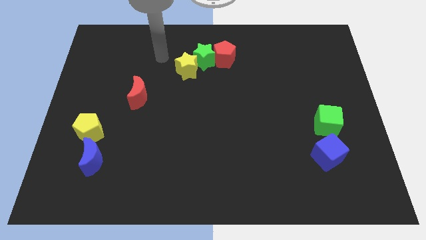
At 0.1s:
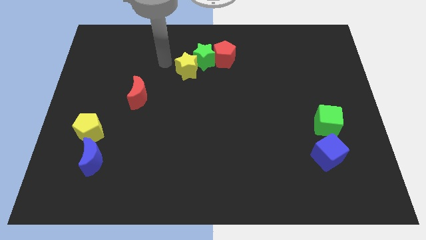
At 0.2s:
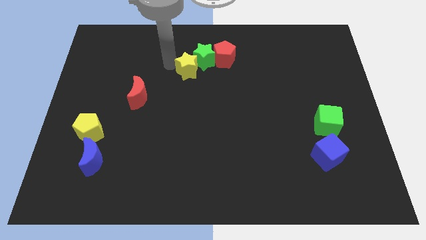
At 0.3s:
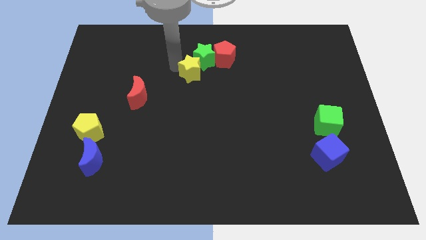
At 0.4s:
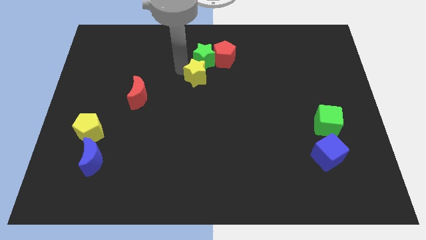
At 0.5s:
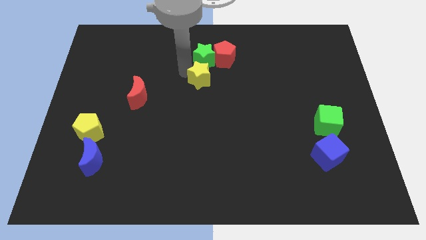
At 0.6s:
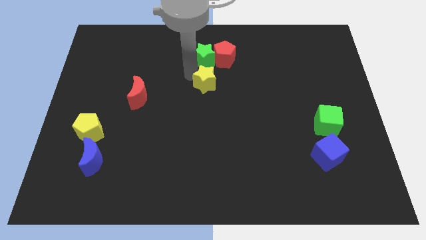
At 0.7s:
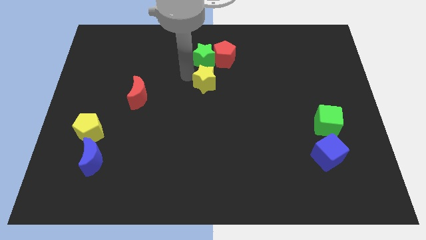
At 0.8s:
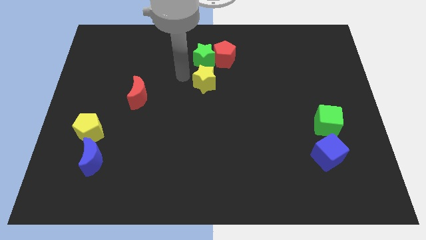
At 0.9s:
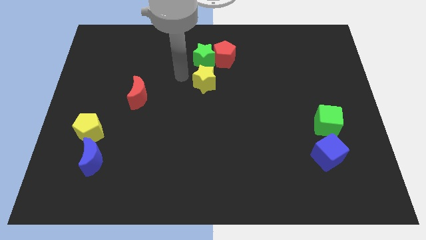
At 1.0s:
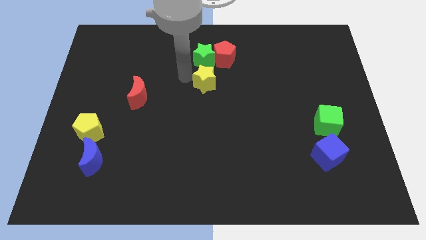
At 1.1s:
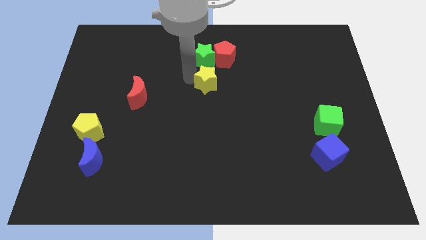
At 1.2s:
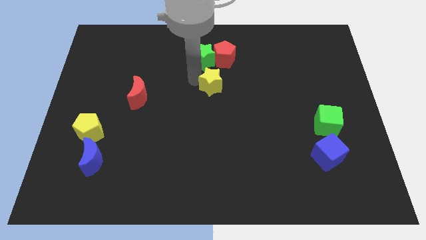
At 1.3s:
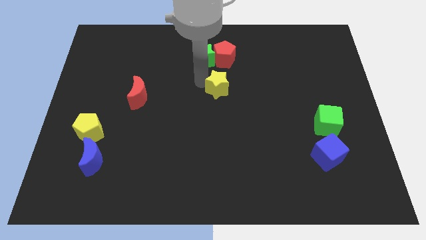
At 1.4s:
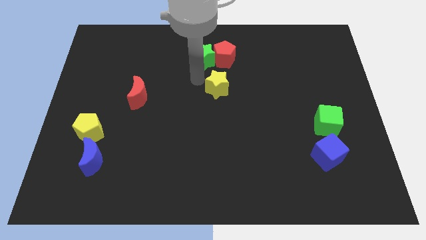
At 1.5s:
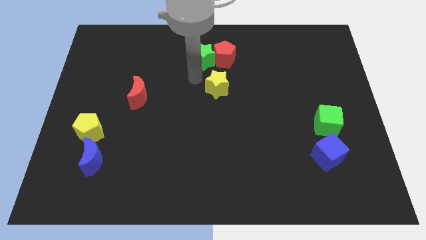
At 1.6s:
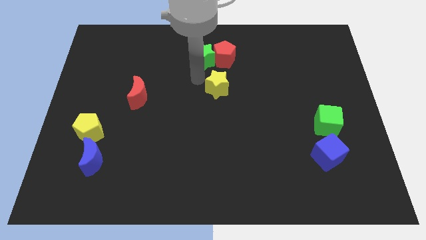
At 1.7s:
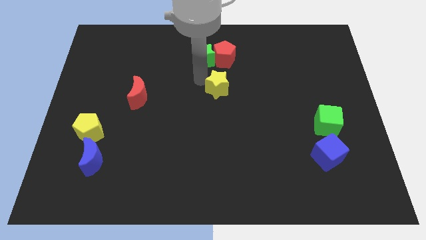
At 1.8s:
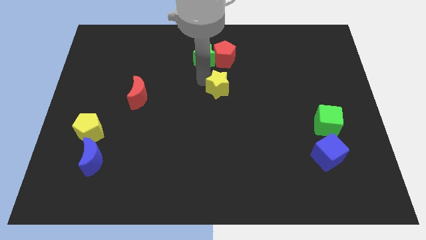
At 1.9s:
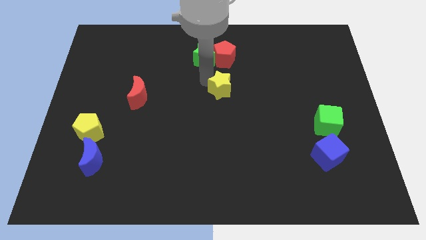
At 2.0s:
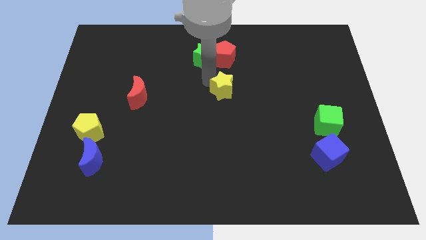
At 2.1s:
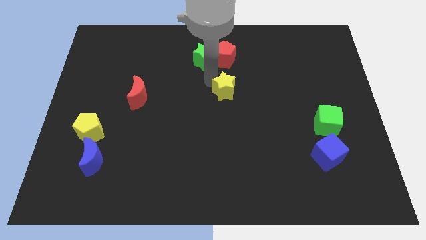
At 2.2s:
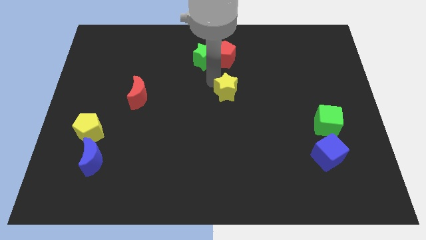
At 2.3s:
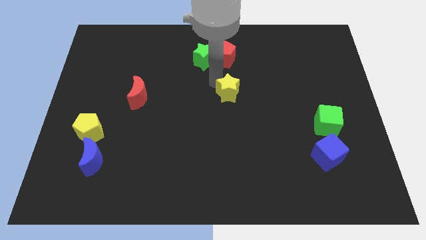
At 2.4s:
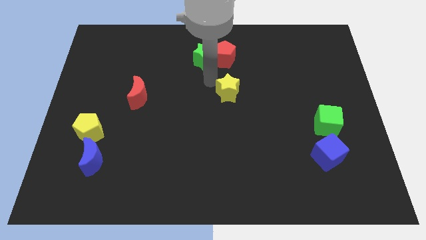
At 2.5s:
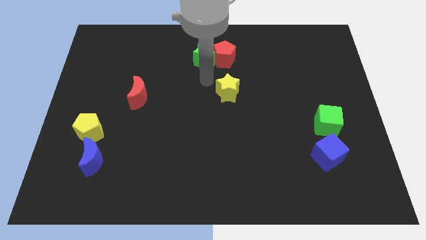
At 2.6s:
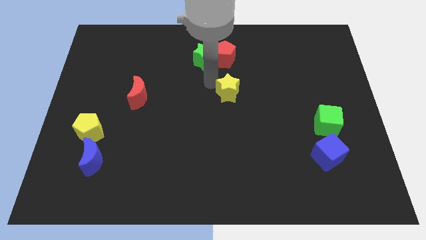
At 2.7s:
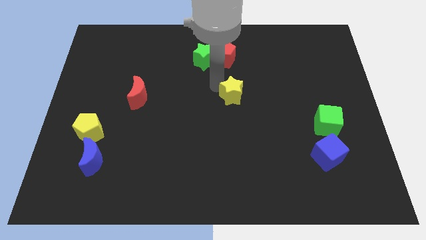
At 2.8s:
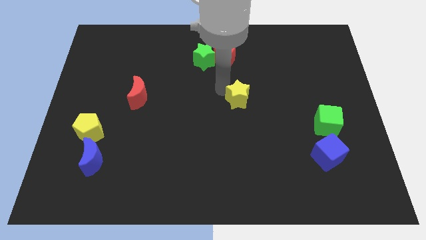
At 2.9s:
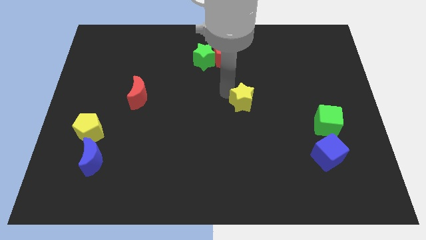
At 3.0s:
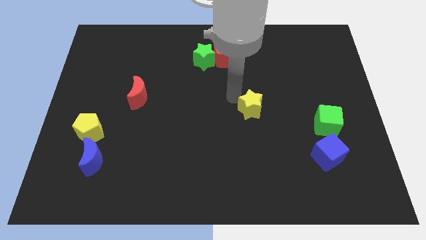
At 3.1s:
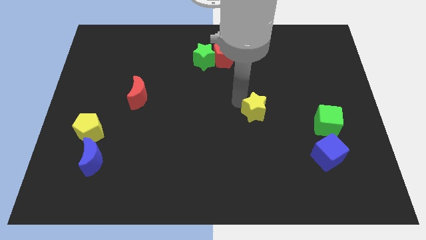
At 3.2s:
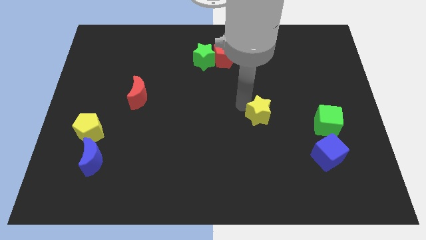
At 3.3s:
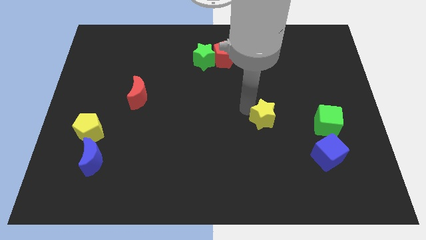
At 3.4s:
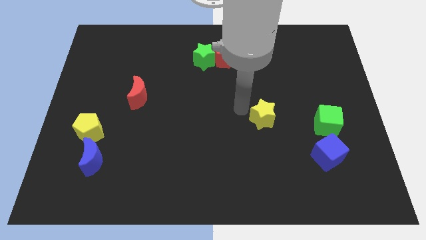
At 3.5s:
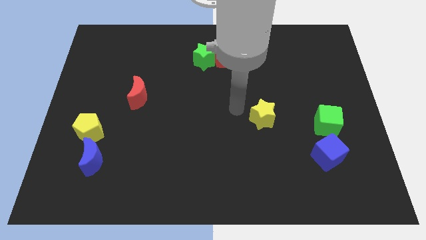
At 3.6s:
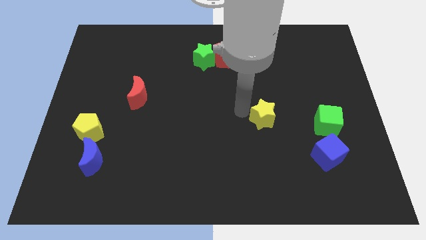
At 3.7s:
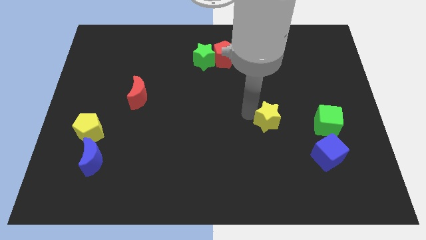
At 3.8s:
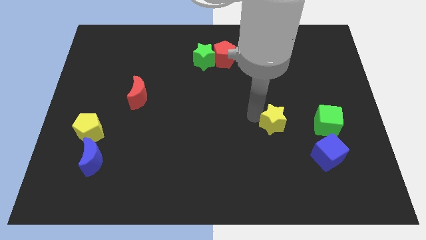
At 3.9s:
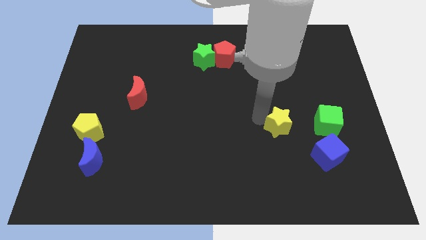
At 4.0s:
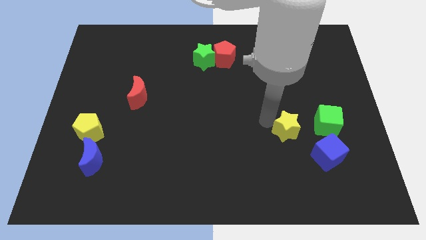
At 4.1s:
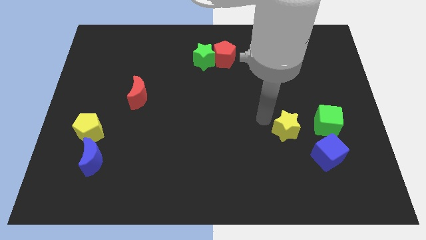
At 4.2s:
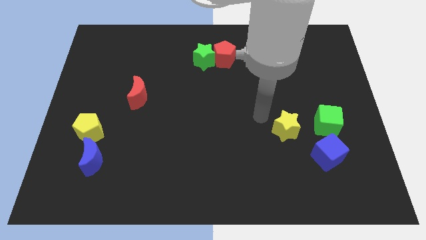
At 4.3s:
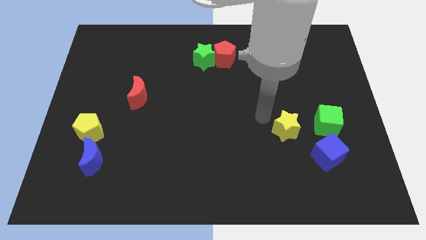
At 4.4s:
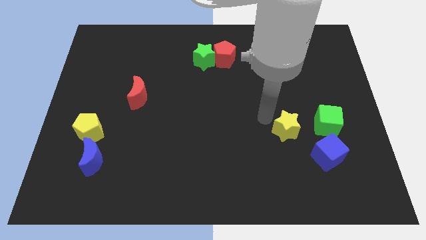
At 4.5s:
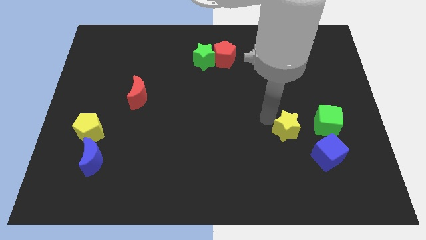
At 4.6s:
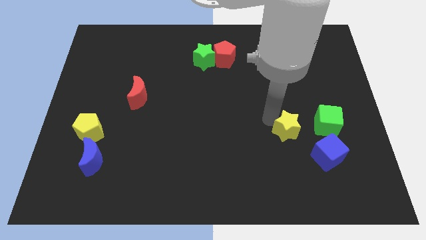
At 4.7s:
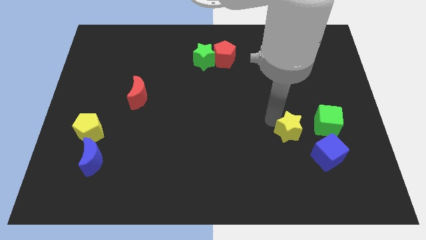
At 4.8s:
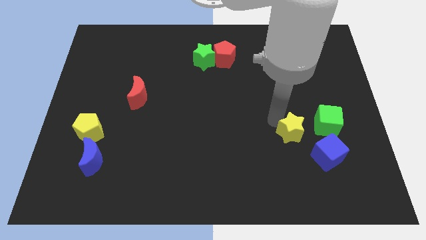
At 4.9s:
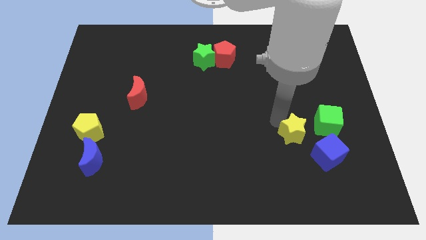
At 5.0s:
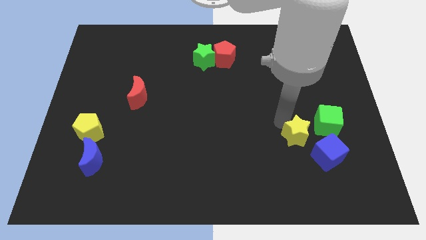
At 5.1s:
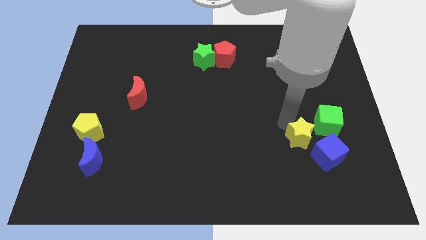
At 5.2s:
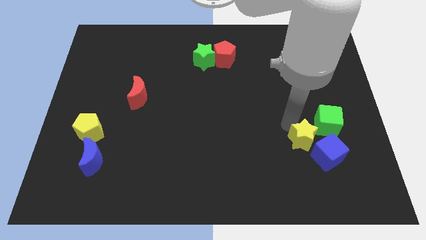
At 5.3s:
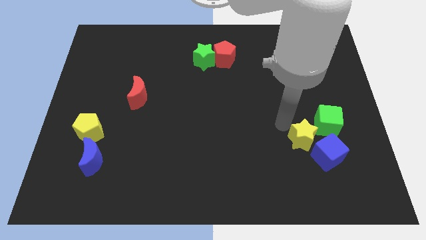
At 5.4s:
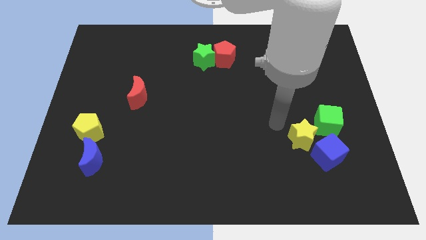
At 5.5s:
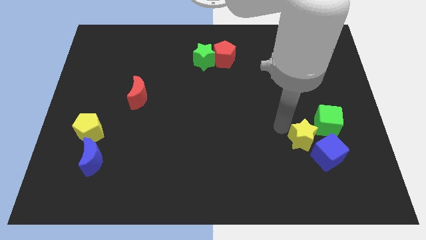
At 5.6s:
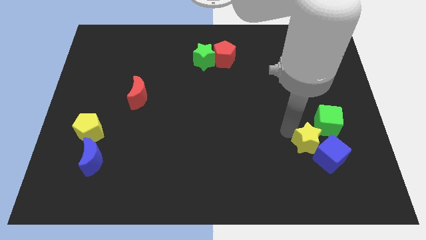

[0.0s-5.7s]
move the yellow star towards the blue cube

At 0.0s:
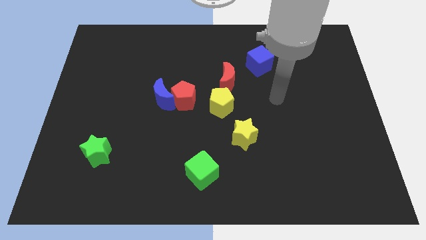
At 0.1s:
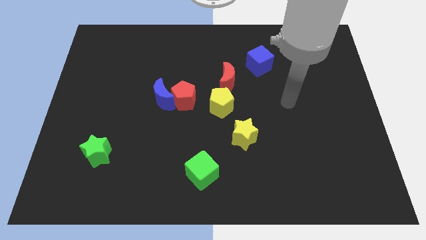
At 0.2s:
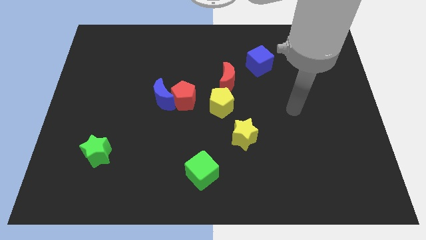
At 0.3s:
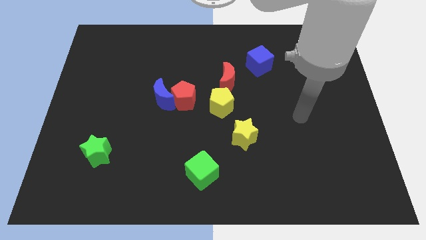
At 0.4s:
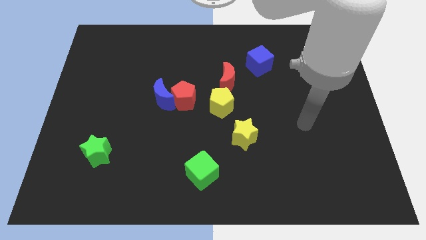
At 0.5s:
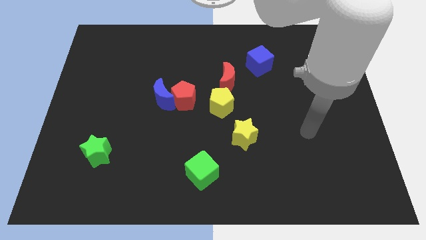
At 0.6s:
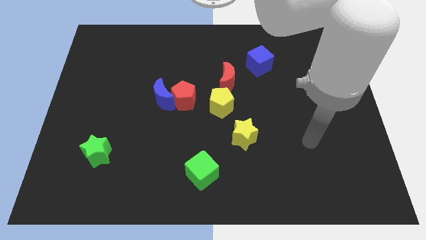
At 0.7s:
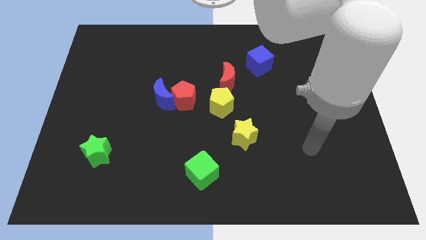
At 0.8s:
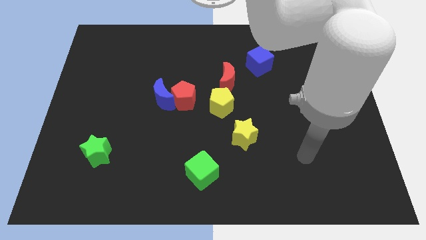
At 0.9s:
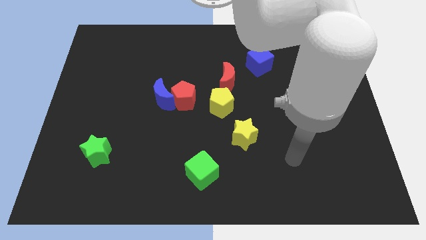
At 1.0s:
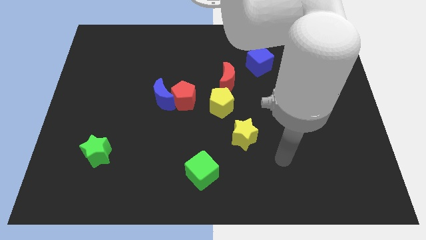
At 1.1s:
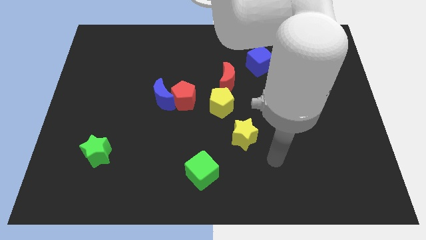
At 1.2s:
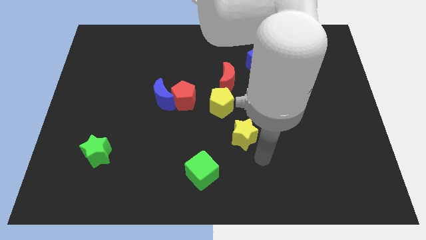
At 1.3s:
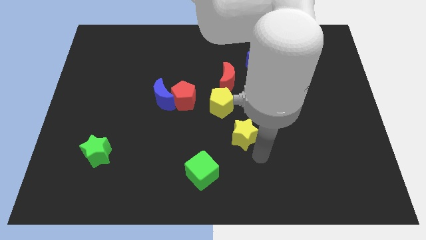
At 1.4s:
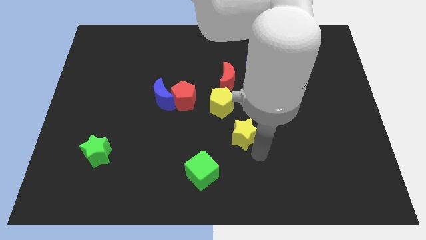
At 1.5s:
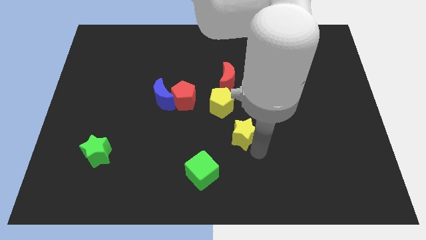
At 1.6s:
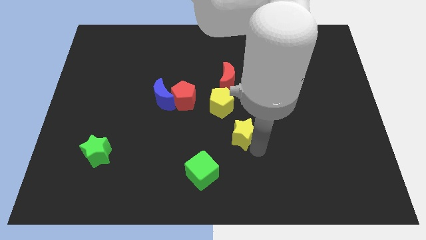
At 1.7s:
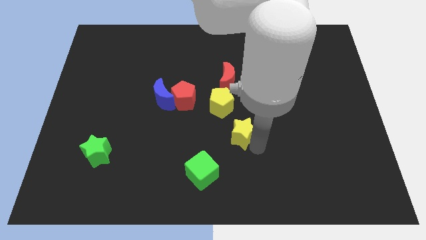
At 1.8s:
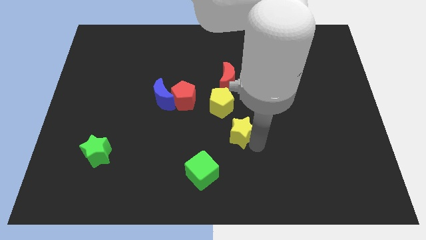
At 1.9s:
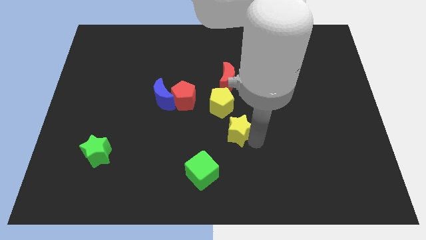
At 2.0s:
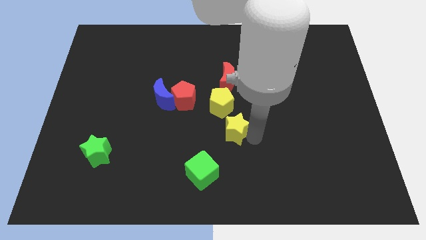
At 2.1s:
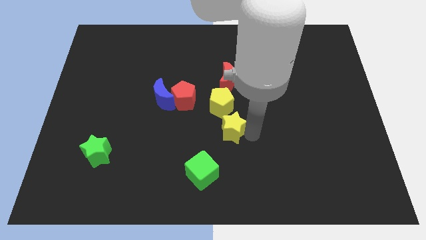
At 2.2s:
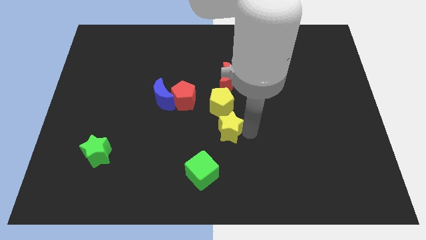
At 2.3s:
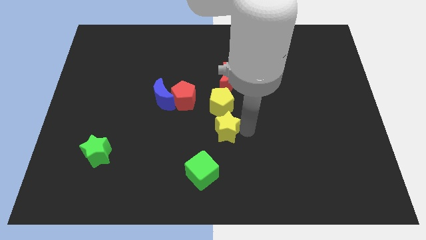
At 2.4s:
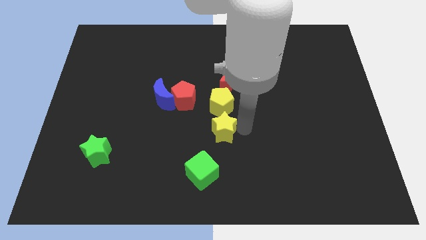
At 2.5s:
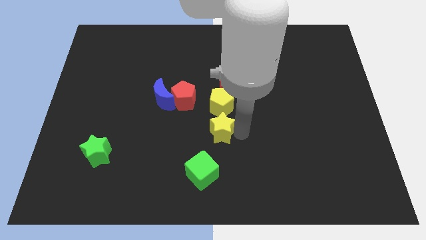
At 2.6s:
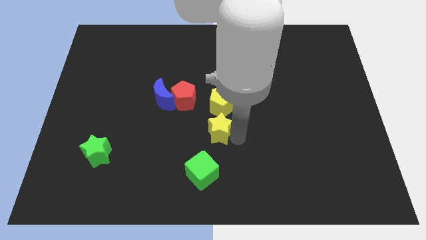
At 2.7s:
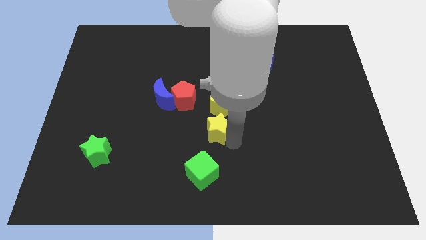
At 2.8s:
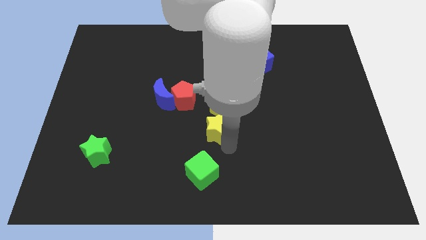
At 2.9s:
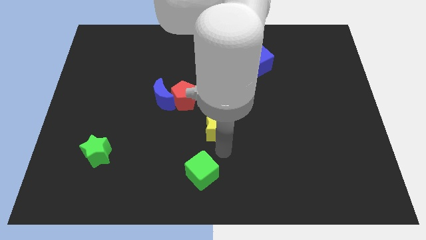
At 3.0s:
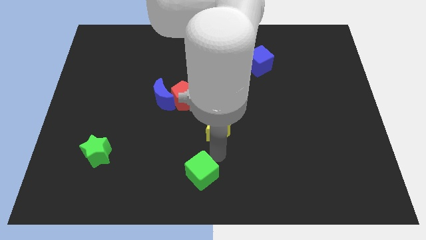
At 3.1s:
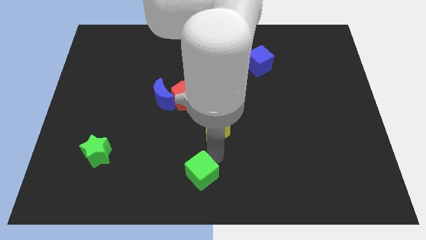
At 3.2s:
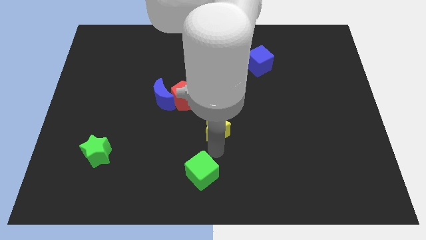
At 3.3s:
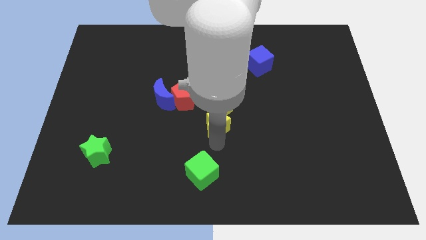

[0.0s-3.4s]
move the yellow star towards the yellow pentagon
